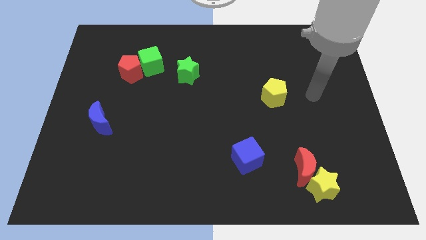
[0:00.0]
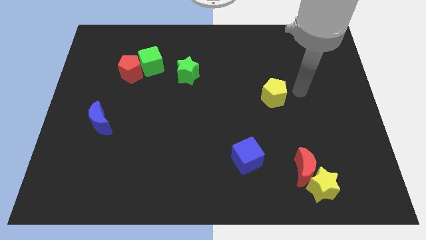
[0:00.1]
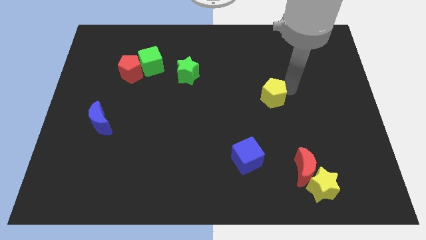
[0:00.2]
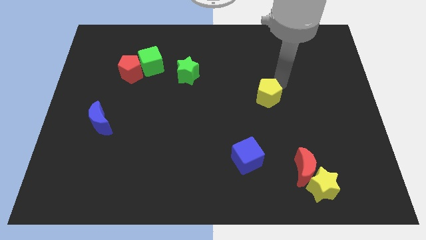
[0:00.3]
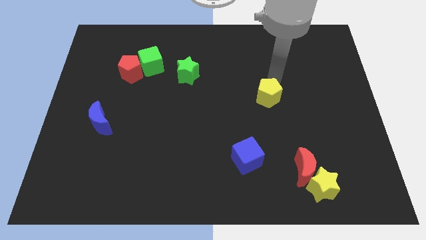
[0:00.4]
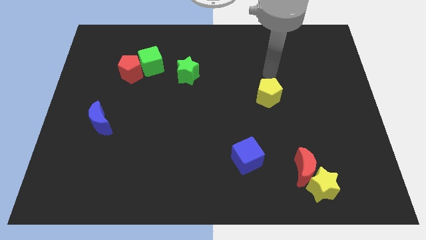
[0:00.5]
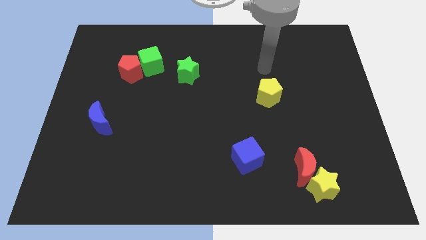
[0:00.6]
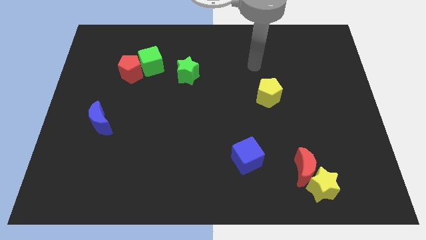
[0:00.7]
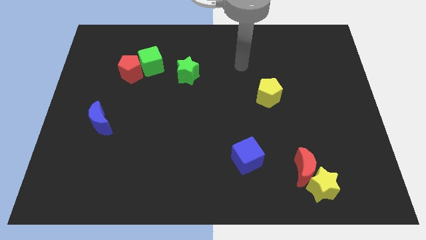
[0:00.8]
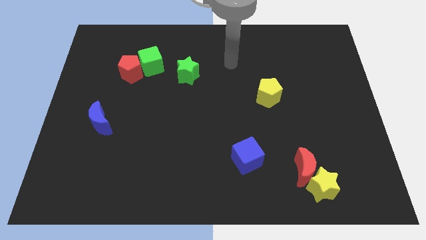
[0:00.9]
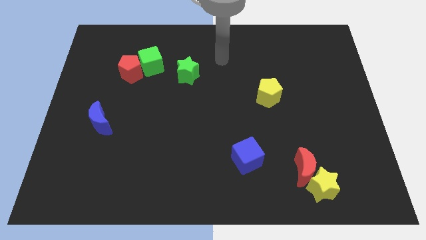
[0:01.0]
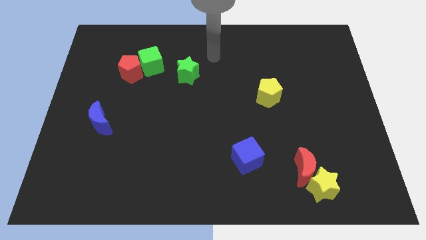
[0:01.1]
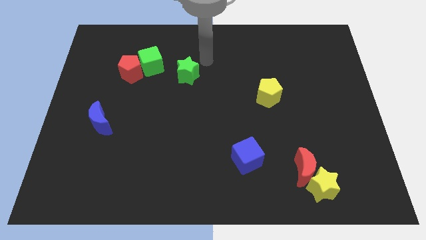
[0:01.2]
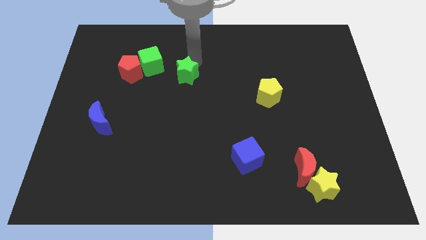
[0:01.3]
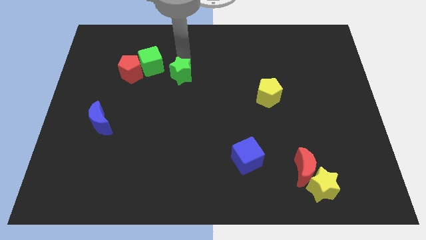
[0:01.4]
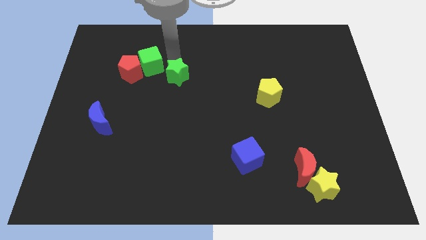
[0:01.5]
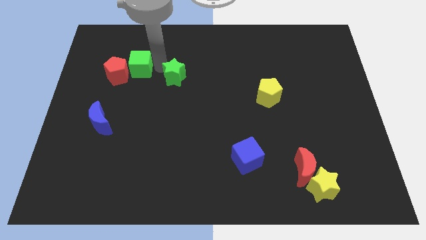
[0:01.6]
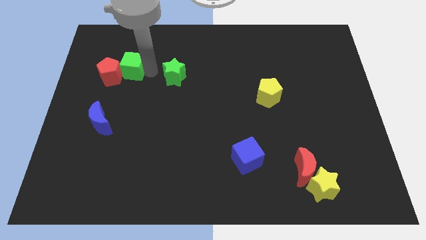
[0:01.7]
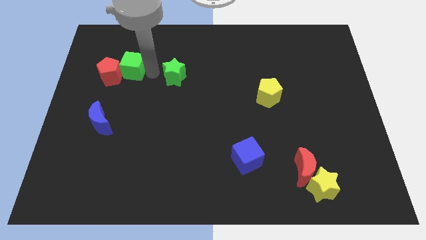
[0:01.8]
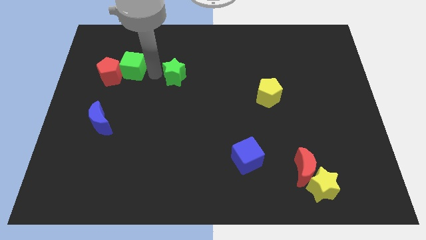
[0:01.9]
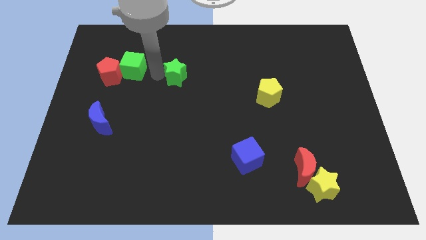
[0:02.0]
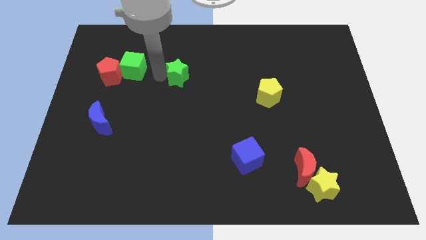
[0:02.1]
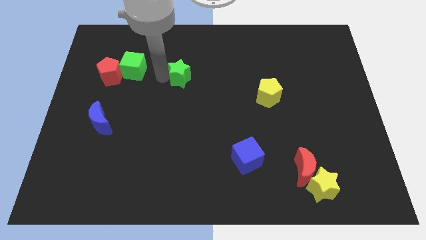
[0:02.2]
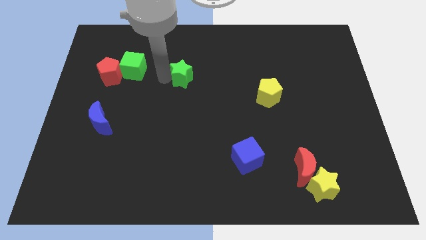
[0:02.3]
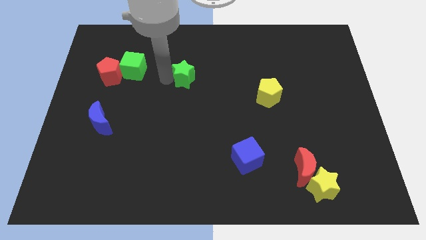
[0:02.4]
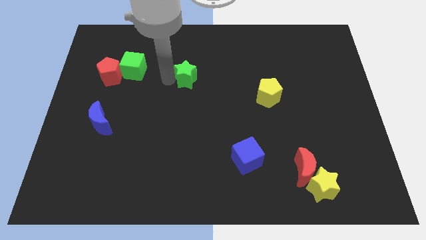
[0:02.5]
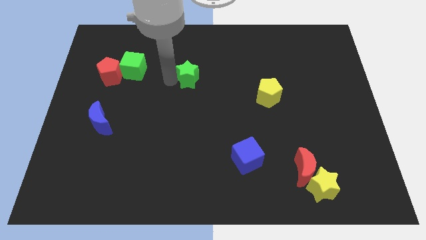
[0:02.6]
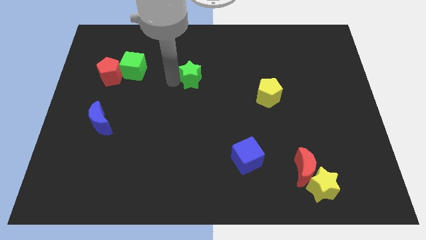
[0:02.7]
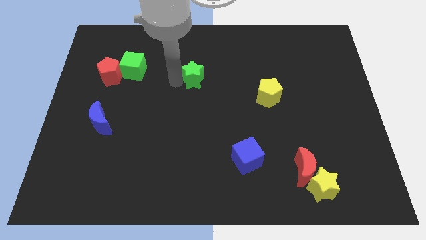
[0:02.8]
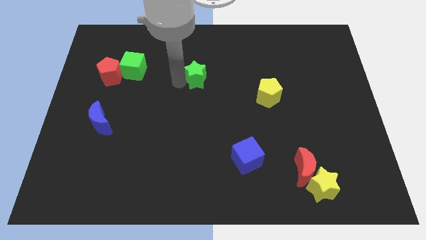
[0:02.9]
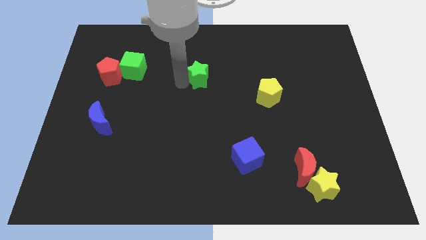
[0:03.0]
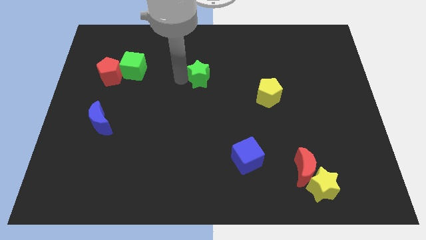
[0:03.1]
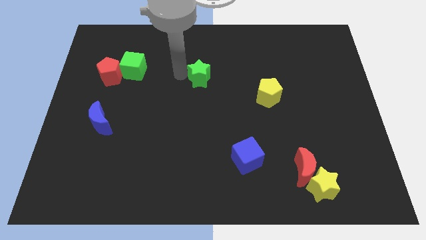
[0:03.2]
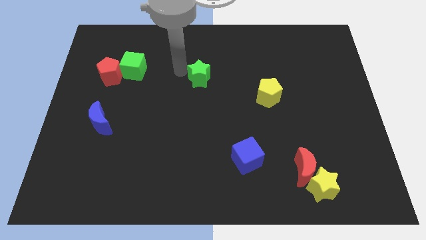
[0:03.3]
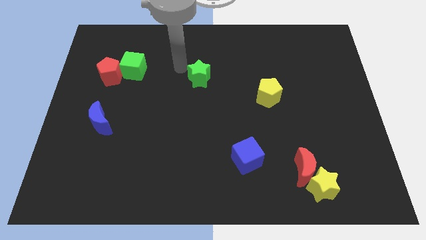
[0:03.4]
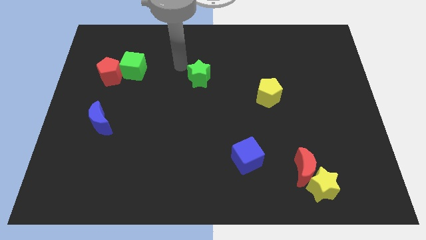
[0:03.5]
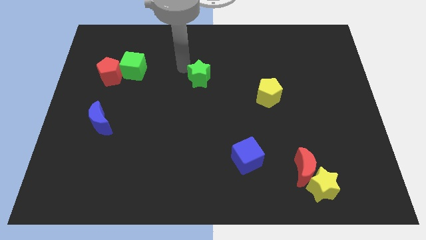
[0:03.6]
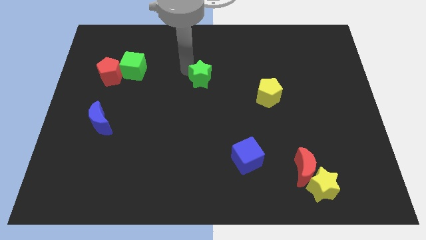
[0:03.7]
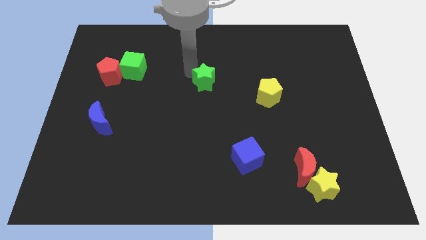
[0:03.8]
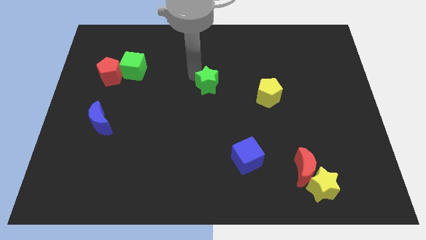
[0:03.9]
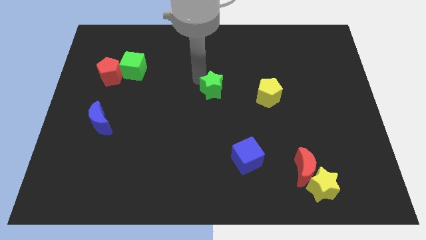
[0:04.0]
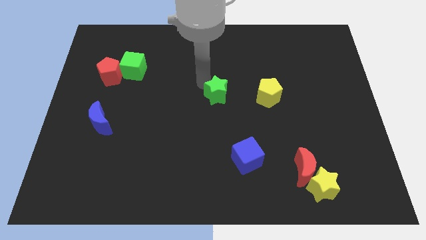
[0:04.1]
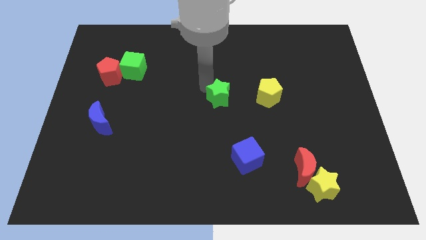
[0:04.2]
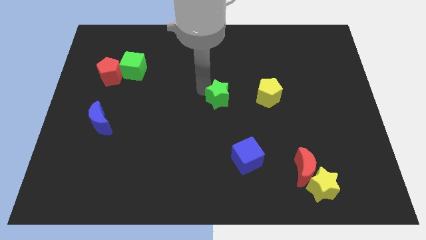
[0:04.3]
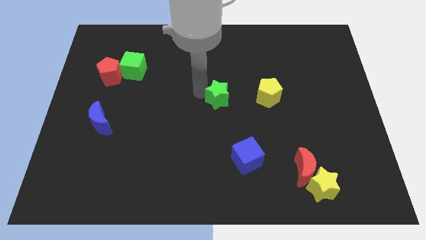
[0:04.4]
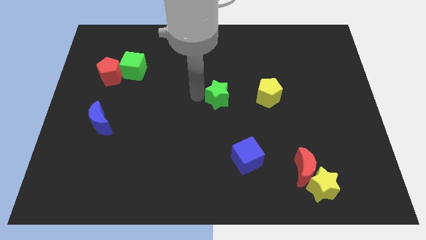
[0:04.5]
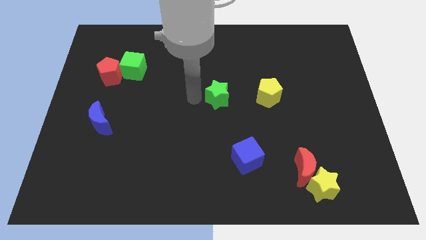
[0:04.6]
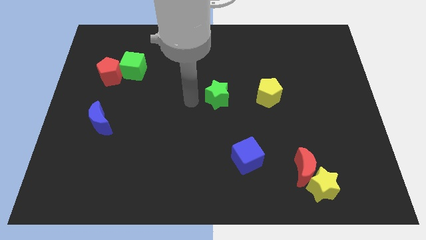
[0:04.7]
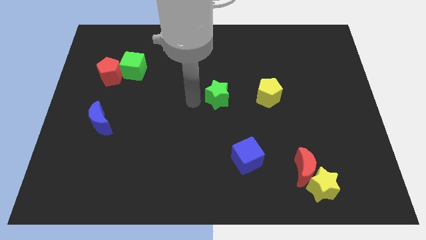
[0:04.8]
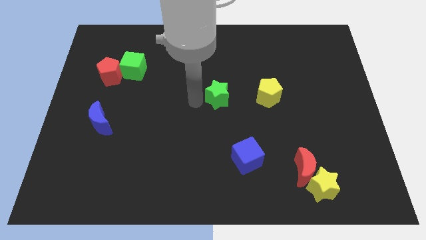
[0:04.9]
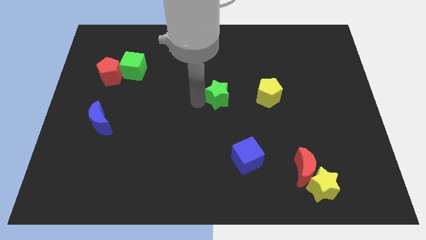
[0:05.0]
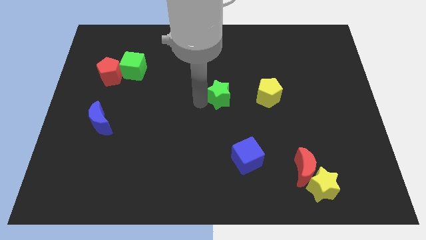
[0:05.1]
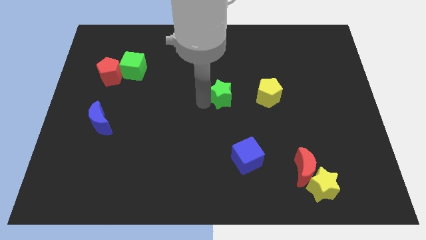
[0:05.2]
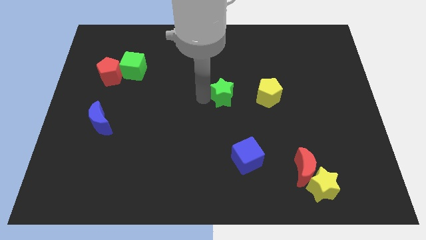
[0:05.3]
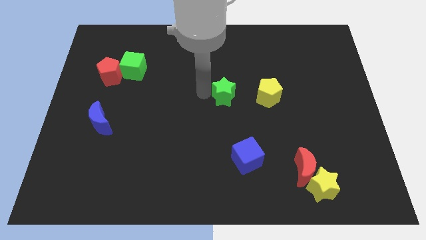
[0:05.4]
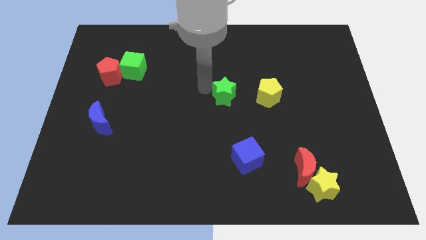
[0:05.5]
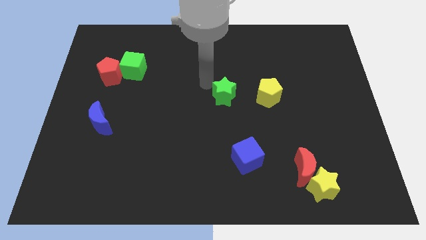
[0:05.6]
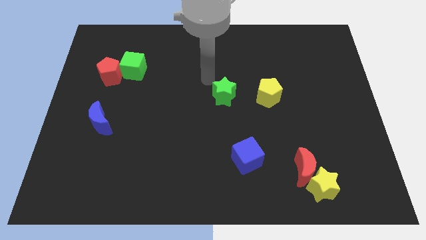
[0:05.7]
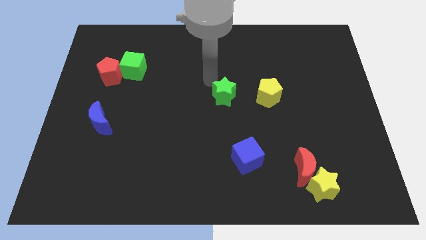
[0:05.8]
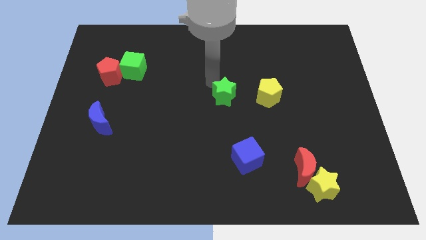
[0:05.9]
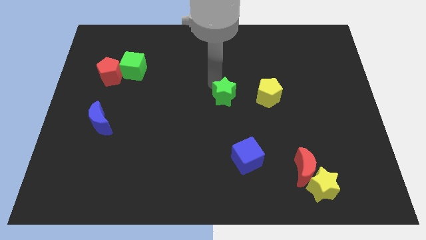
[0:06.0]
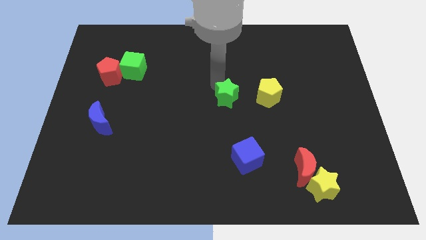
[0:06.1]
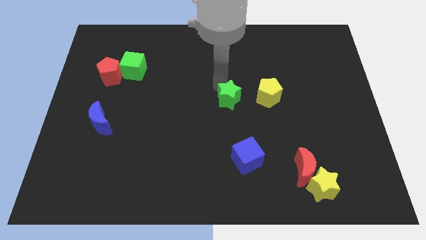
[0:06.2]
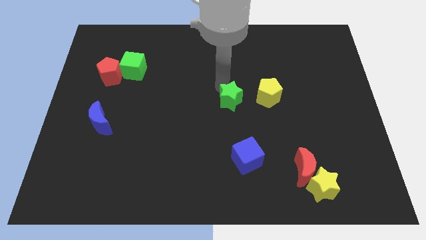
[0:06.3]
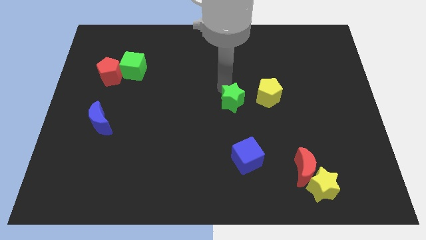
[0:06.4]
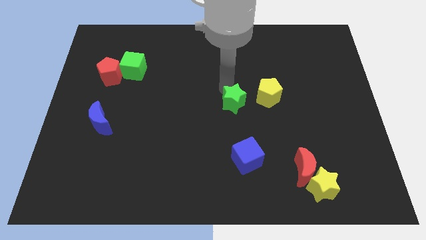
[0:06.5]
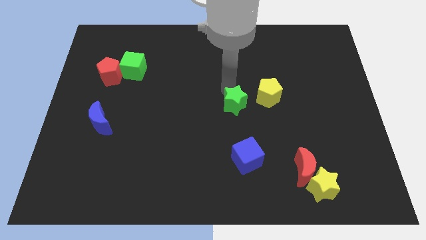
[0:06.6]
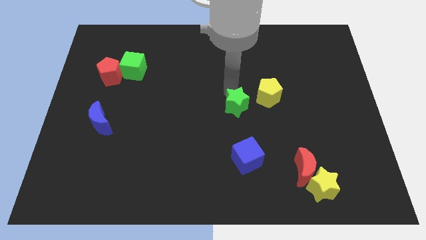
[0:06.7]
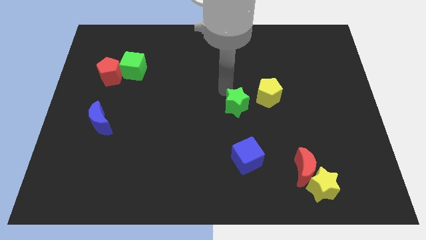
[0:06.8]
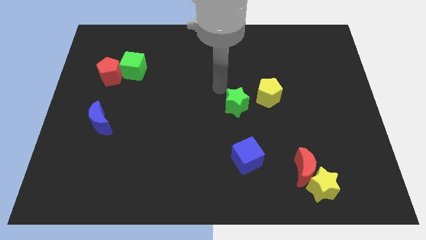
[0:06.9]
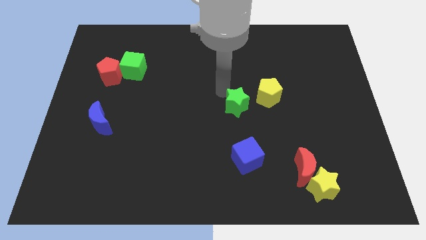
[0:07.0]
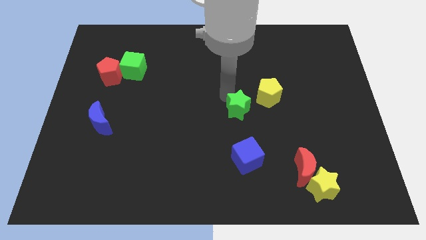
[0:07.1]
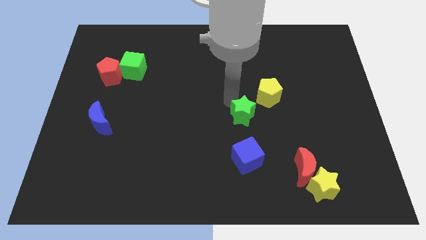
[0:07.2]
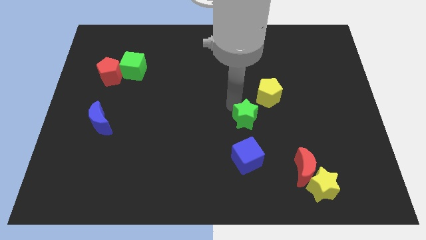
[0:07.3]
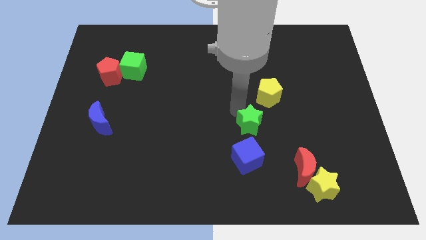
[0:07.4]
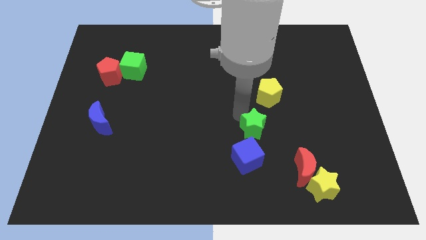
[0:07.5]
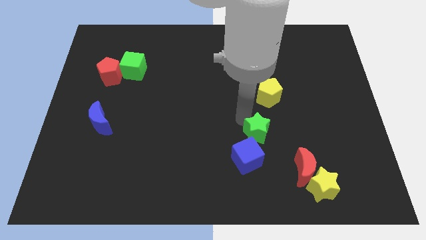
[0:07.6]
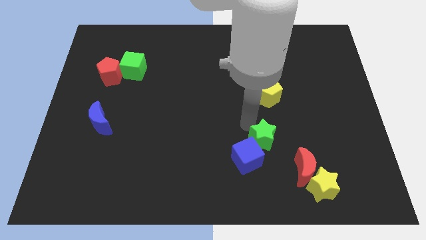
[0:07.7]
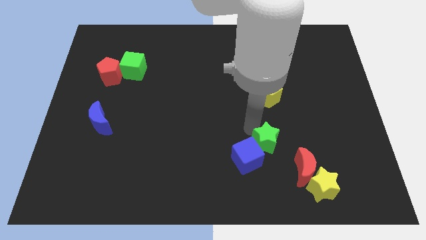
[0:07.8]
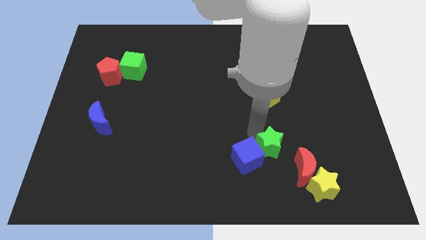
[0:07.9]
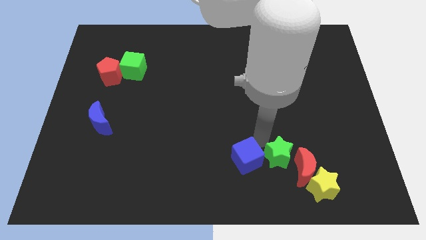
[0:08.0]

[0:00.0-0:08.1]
slide the green star towards the red moon
